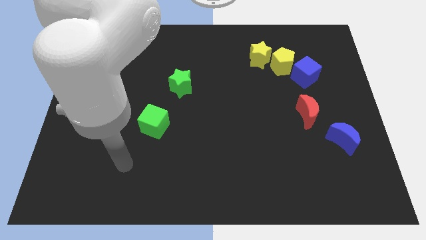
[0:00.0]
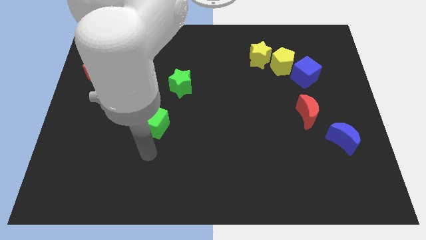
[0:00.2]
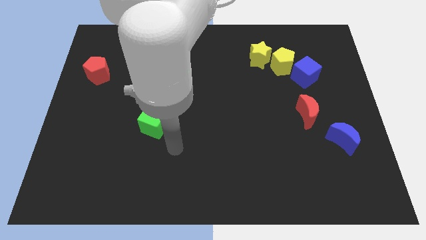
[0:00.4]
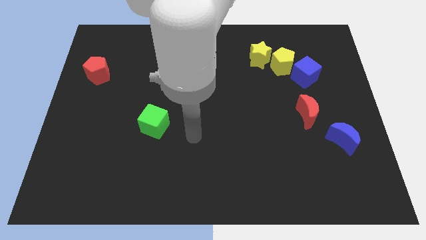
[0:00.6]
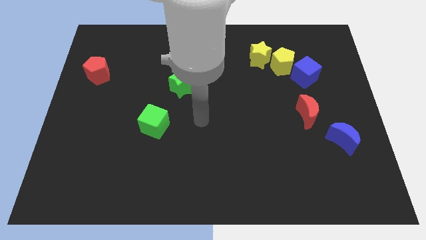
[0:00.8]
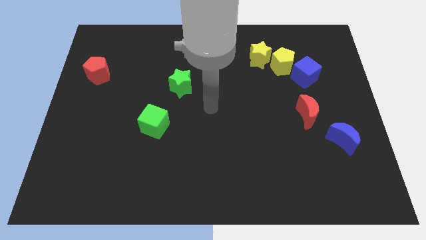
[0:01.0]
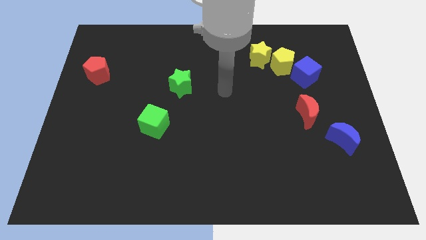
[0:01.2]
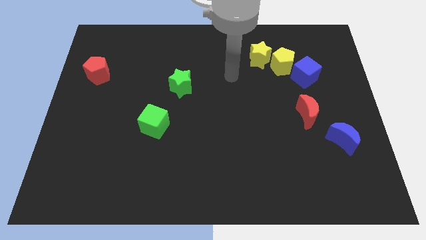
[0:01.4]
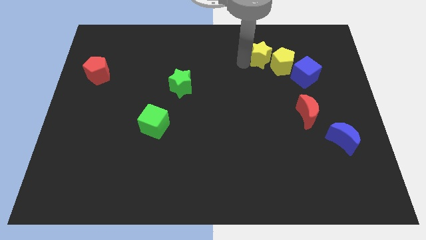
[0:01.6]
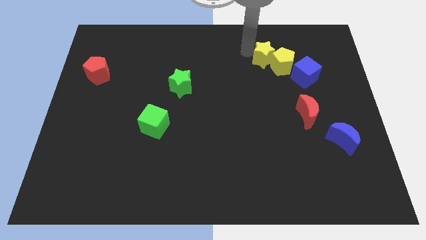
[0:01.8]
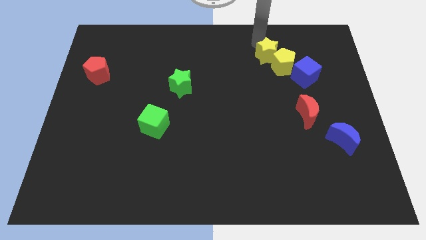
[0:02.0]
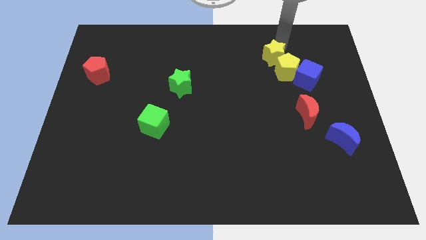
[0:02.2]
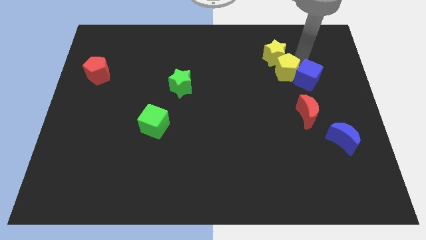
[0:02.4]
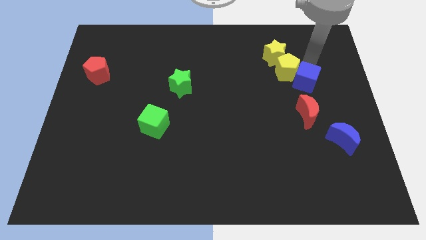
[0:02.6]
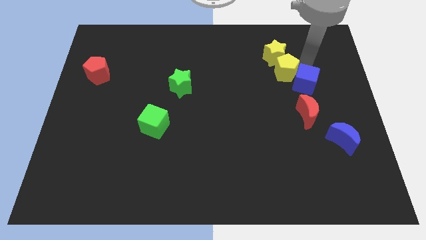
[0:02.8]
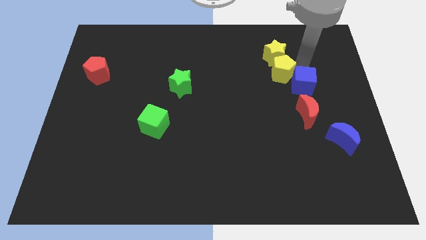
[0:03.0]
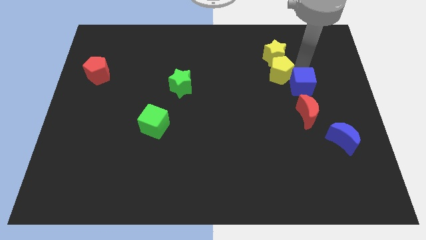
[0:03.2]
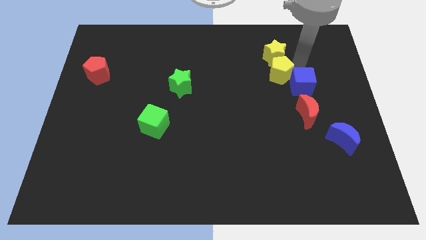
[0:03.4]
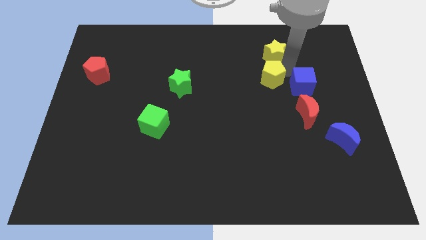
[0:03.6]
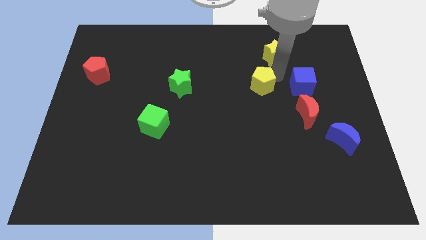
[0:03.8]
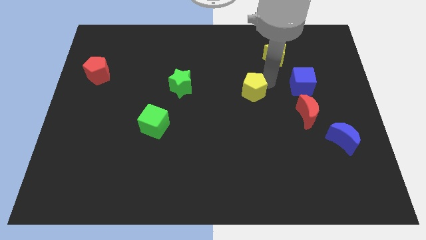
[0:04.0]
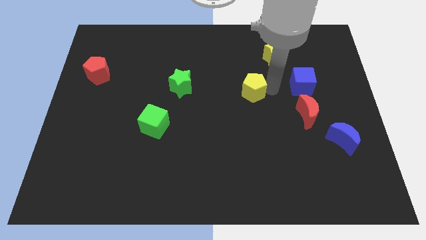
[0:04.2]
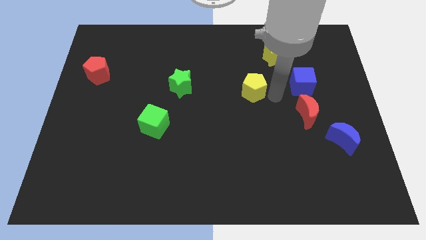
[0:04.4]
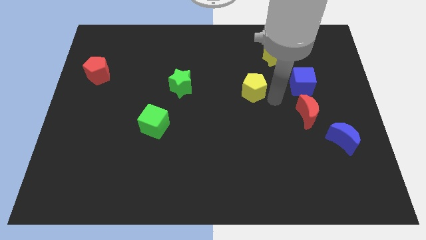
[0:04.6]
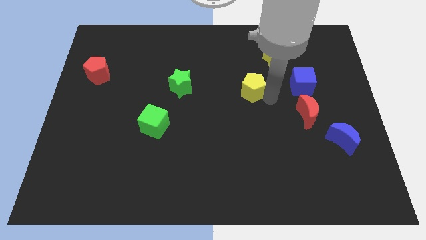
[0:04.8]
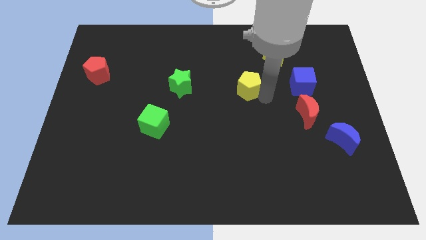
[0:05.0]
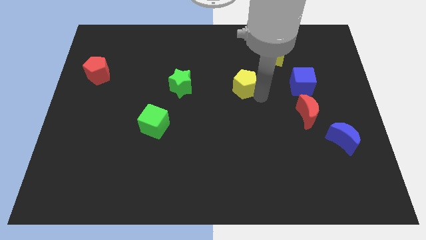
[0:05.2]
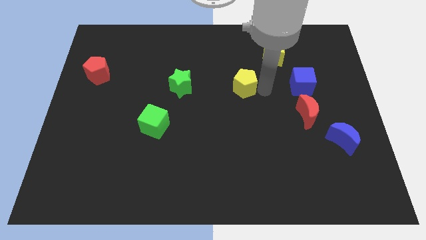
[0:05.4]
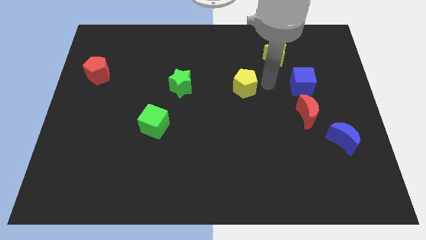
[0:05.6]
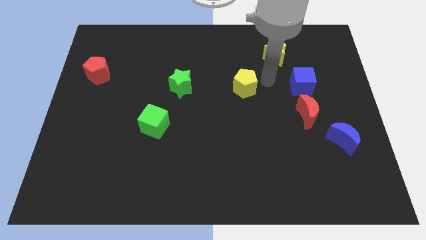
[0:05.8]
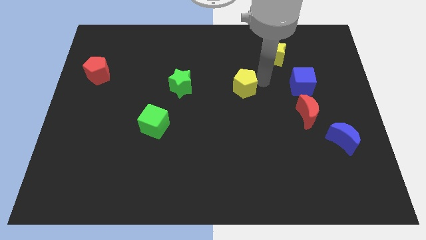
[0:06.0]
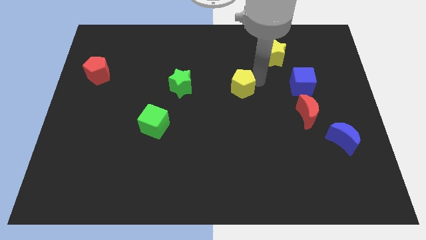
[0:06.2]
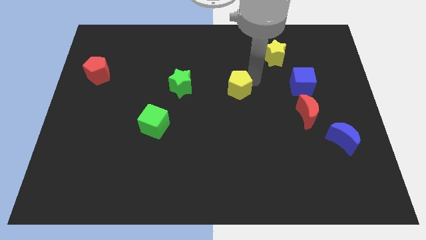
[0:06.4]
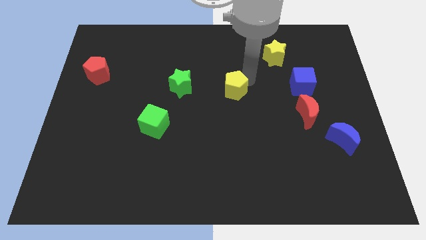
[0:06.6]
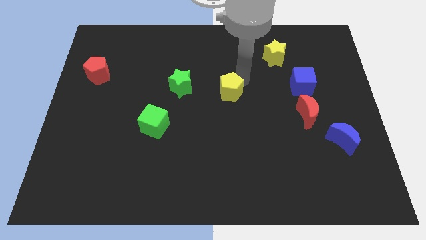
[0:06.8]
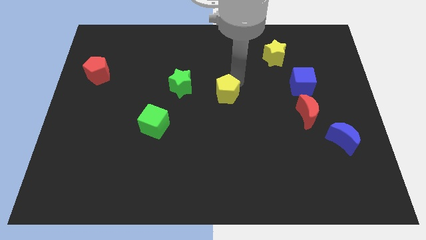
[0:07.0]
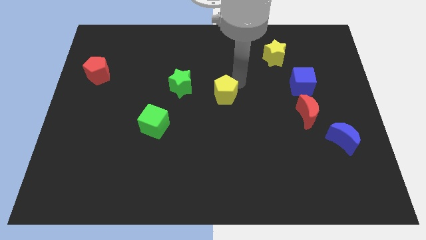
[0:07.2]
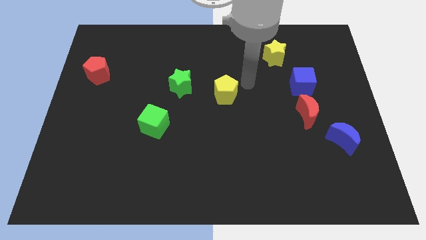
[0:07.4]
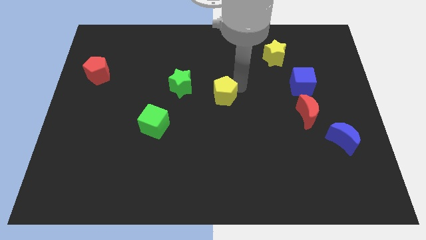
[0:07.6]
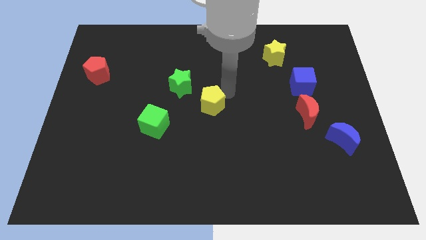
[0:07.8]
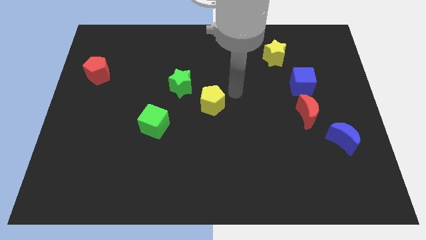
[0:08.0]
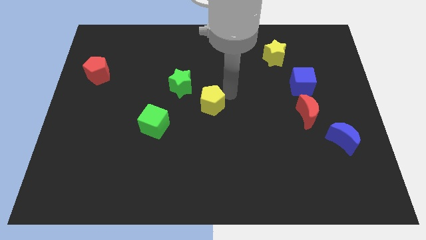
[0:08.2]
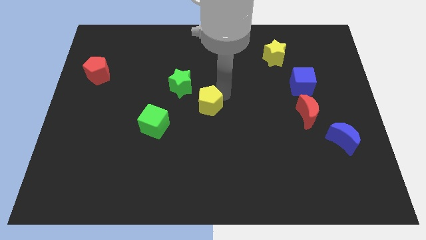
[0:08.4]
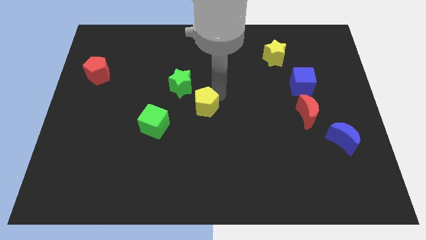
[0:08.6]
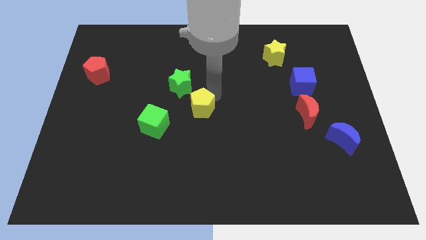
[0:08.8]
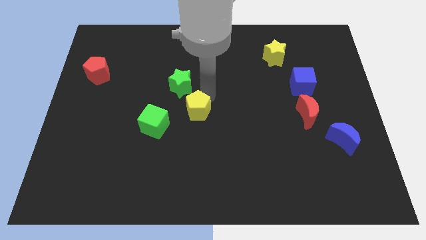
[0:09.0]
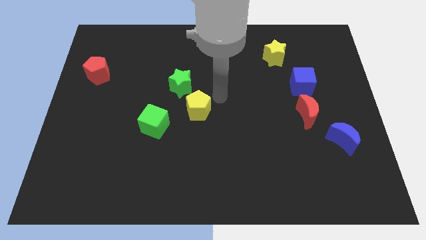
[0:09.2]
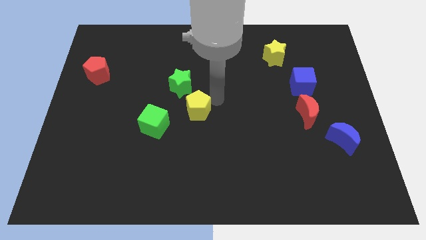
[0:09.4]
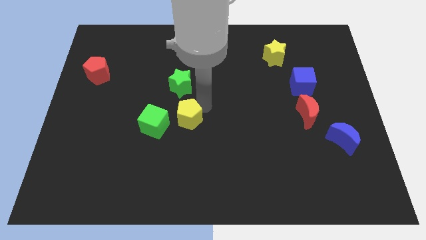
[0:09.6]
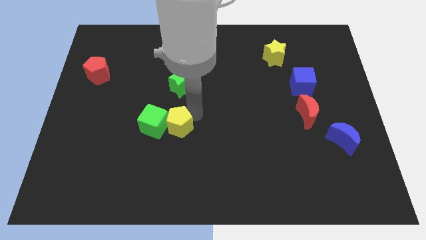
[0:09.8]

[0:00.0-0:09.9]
slide the yellow pentagon next to the green cube

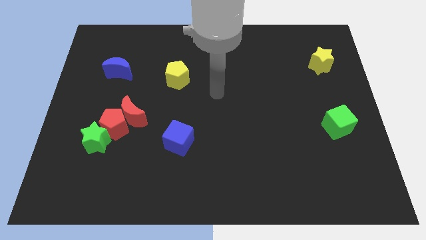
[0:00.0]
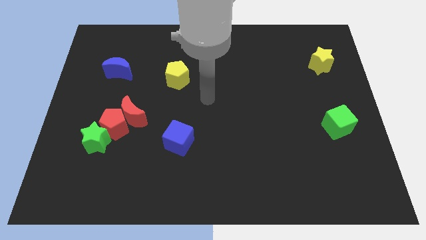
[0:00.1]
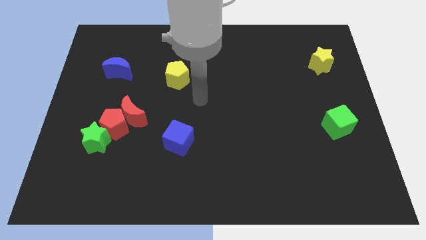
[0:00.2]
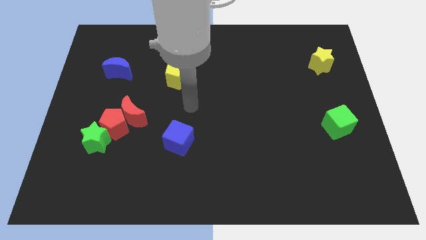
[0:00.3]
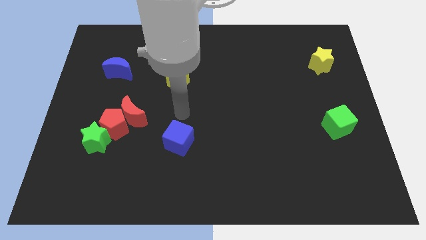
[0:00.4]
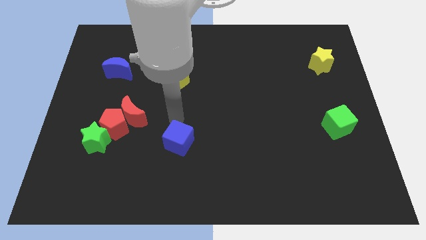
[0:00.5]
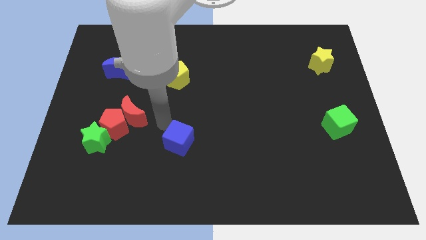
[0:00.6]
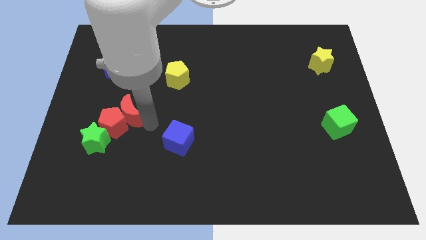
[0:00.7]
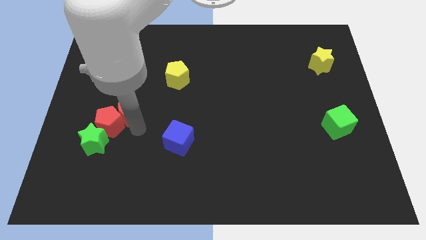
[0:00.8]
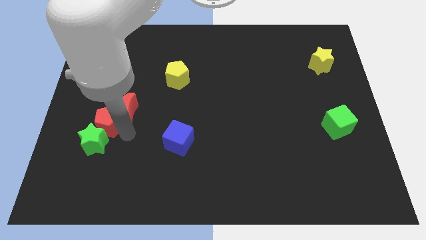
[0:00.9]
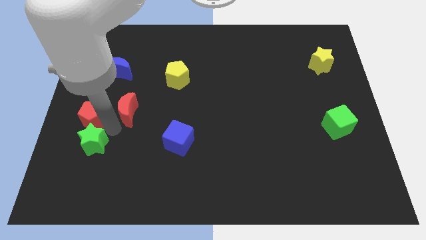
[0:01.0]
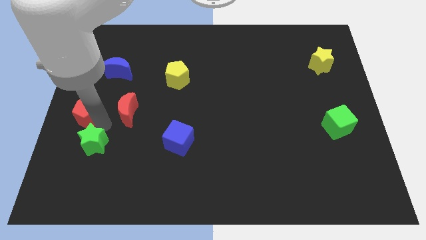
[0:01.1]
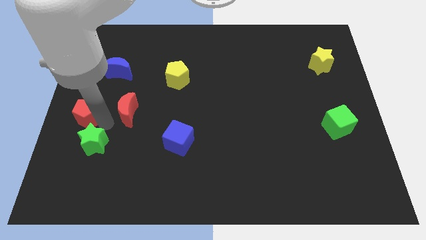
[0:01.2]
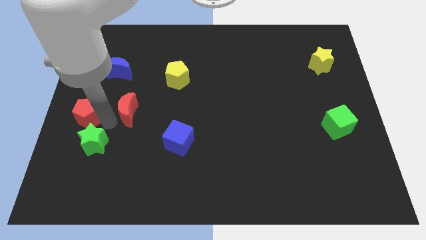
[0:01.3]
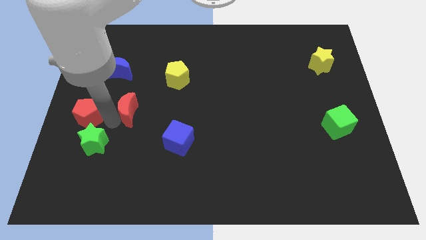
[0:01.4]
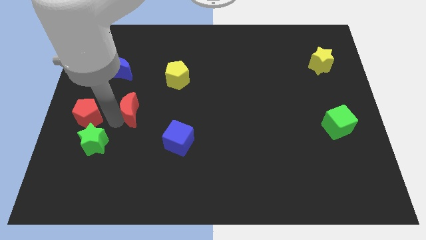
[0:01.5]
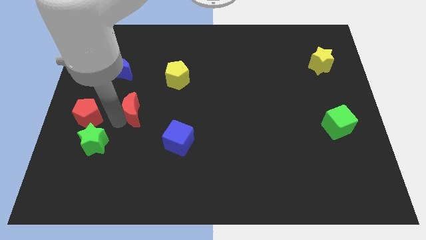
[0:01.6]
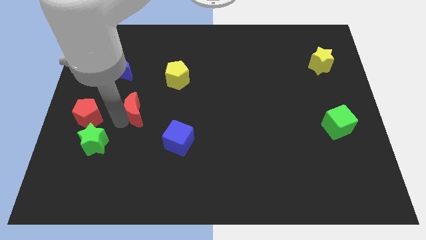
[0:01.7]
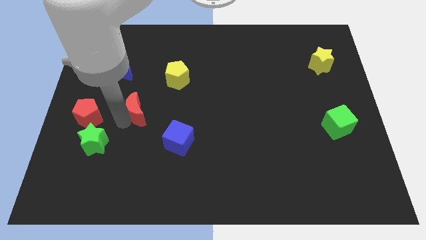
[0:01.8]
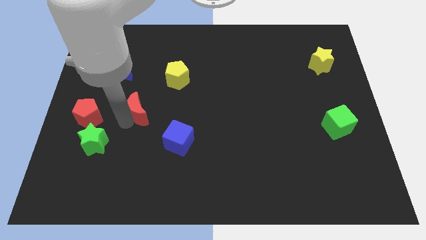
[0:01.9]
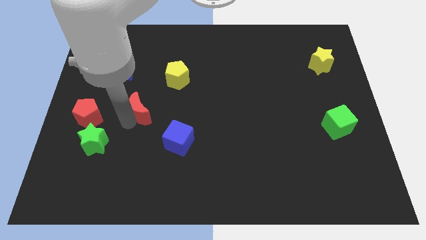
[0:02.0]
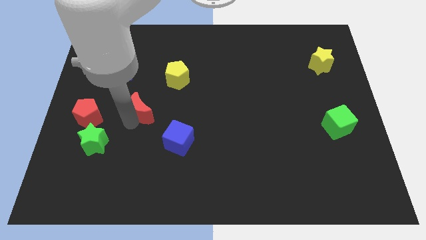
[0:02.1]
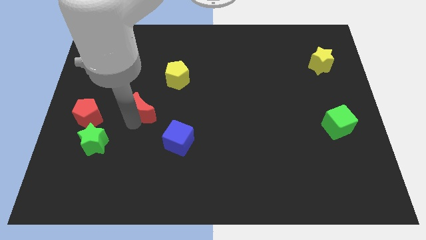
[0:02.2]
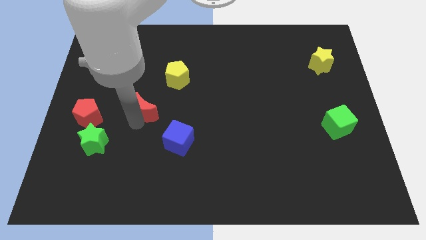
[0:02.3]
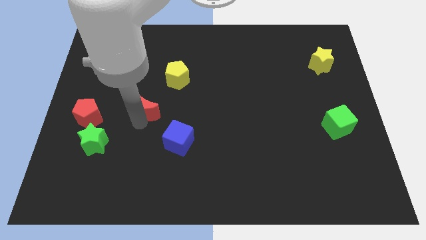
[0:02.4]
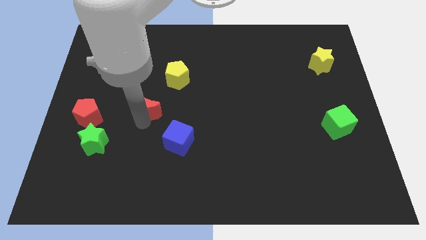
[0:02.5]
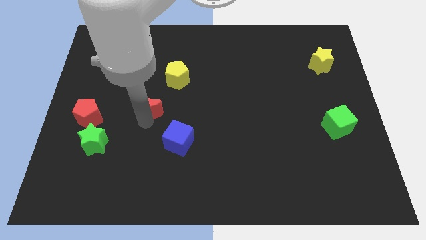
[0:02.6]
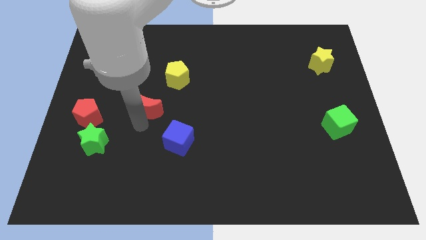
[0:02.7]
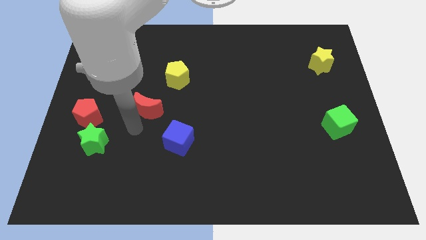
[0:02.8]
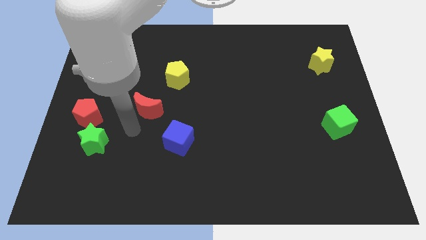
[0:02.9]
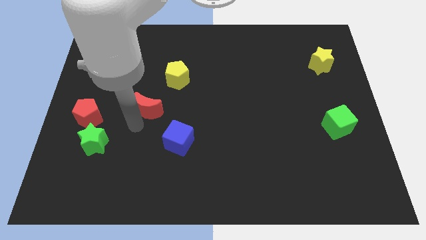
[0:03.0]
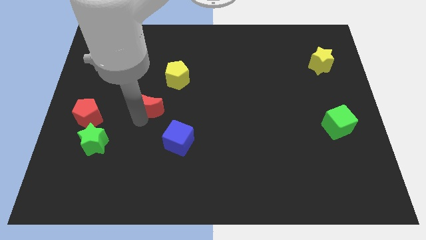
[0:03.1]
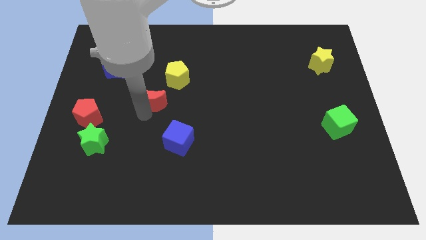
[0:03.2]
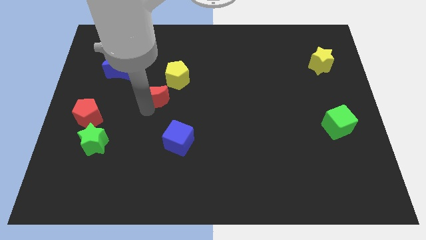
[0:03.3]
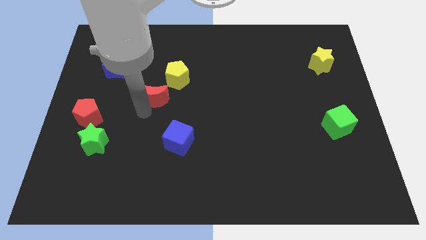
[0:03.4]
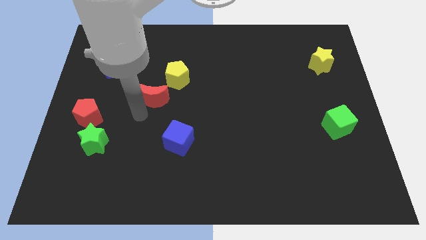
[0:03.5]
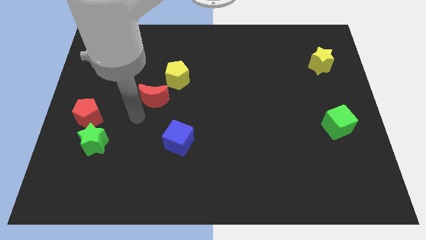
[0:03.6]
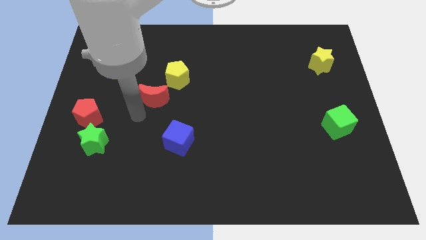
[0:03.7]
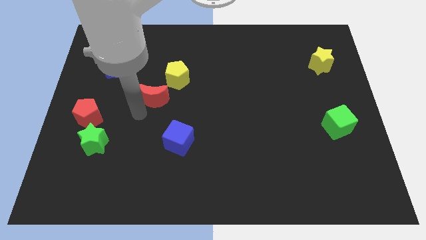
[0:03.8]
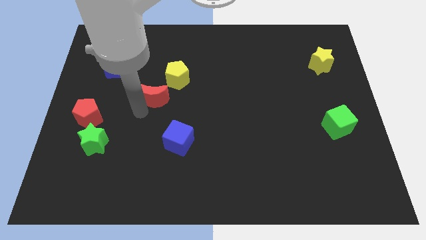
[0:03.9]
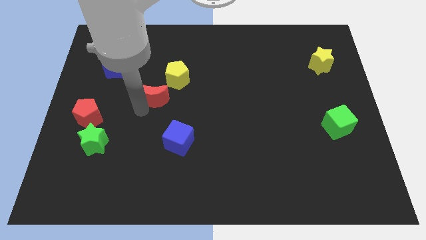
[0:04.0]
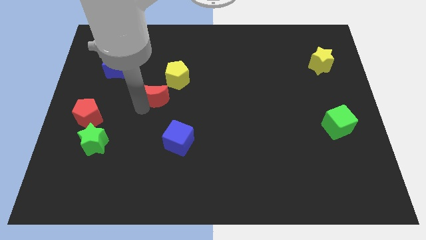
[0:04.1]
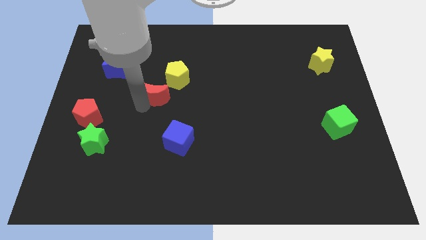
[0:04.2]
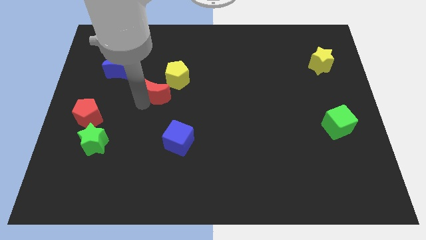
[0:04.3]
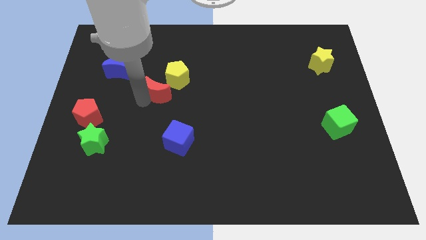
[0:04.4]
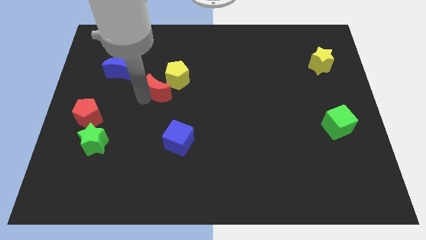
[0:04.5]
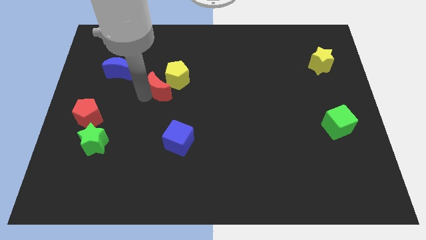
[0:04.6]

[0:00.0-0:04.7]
put the red moon towards the yellow pentagon
